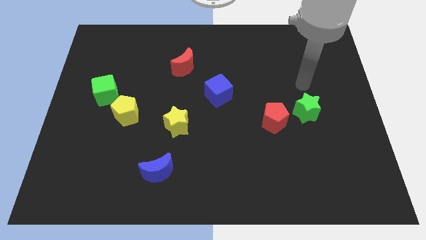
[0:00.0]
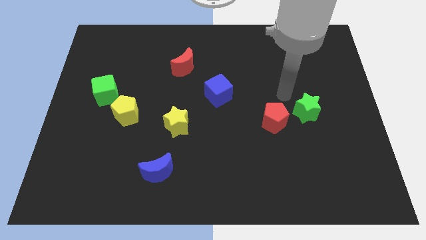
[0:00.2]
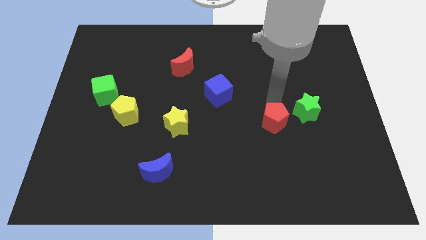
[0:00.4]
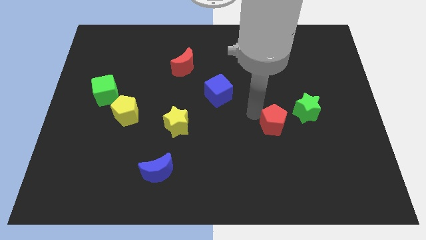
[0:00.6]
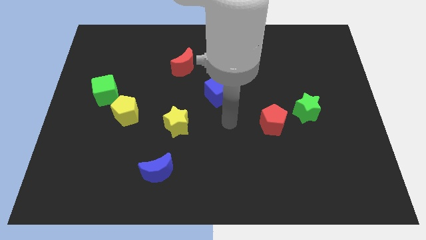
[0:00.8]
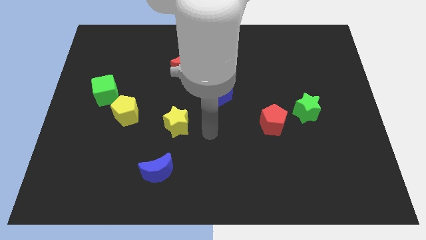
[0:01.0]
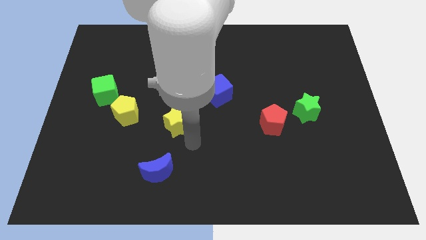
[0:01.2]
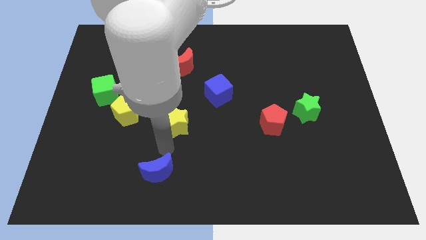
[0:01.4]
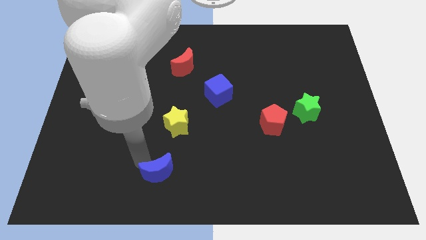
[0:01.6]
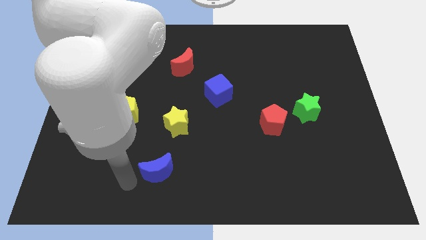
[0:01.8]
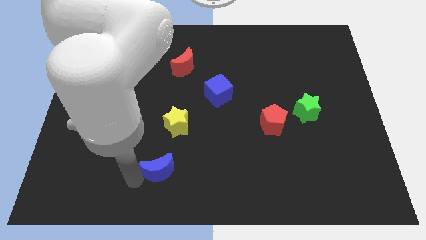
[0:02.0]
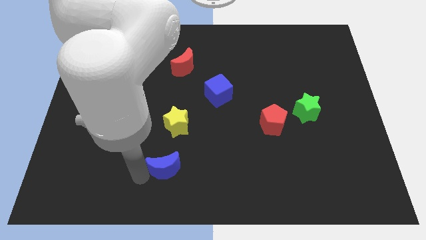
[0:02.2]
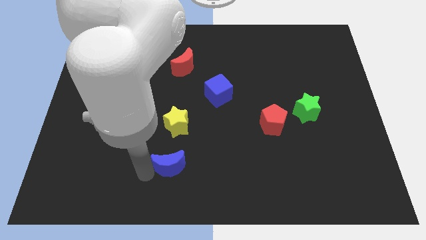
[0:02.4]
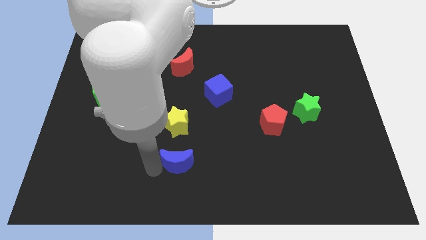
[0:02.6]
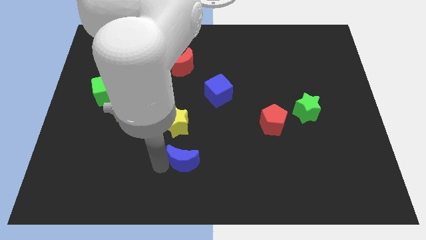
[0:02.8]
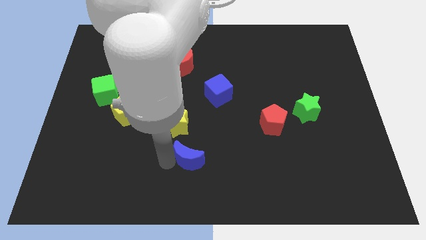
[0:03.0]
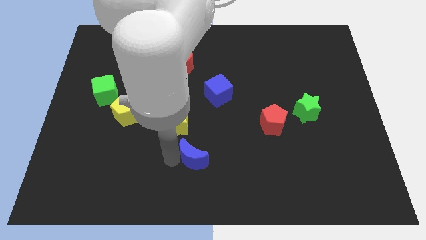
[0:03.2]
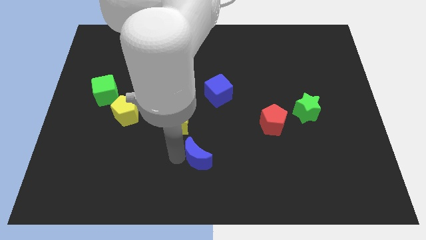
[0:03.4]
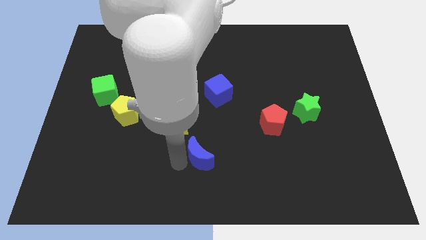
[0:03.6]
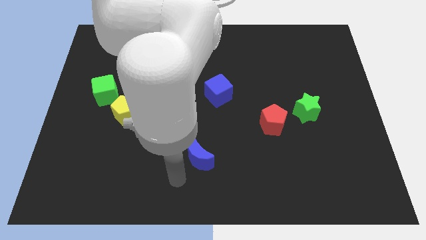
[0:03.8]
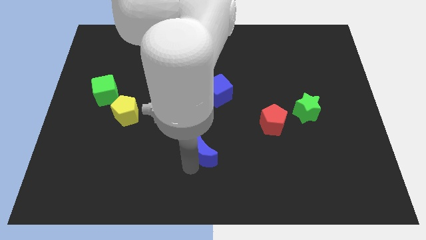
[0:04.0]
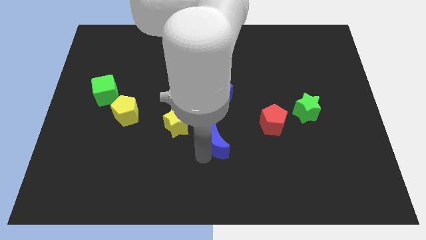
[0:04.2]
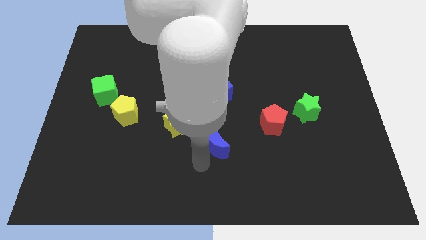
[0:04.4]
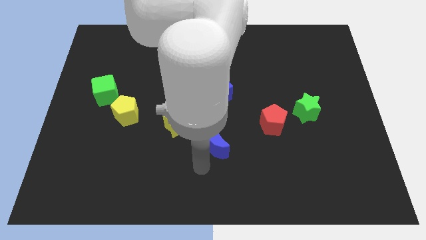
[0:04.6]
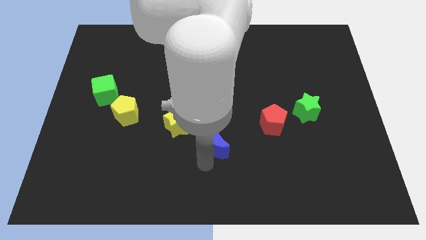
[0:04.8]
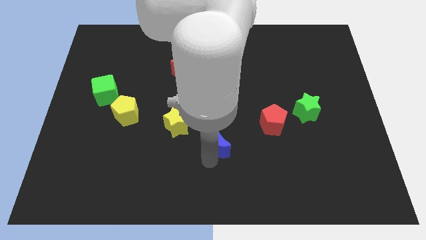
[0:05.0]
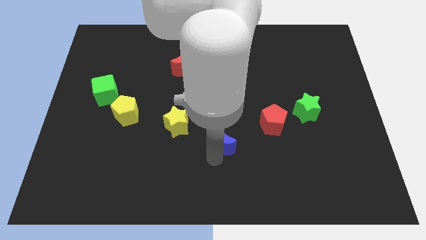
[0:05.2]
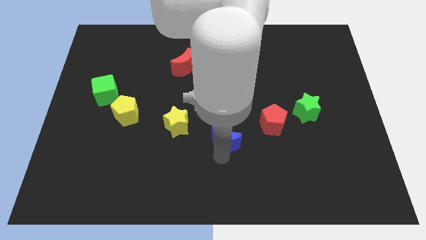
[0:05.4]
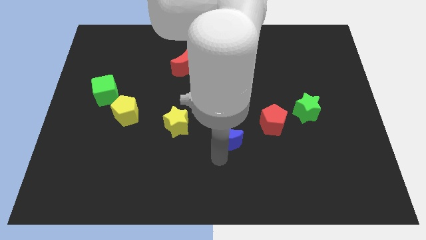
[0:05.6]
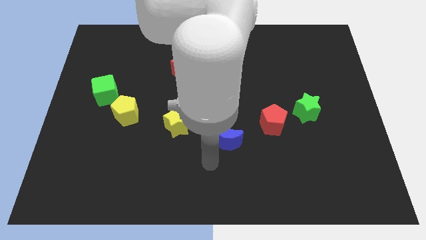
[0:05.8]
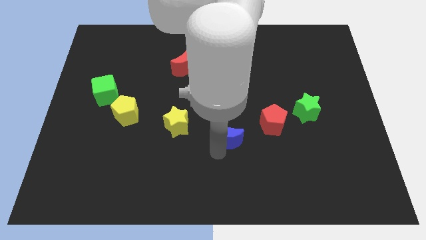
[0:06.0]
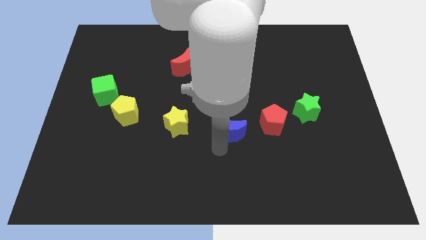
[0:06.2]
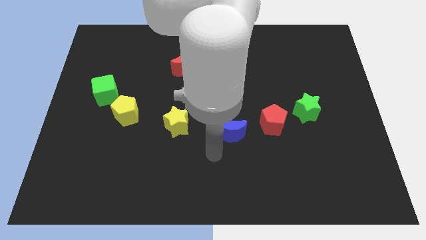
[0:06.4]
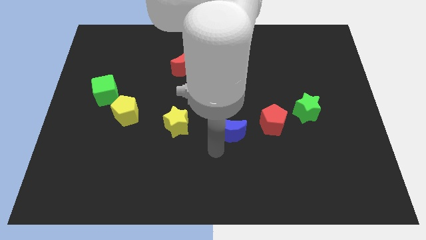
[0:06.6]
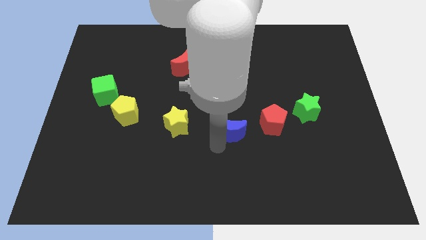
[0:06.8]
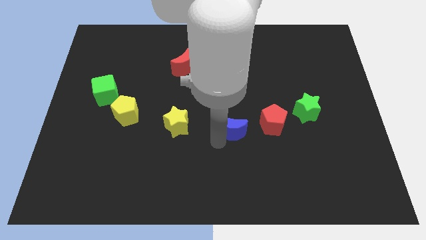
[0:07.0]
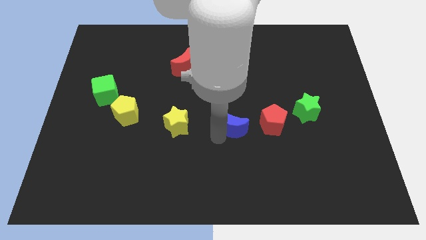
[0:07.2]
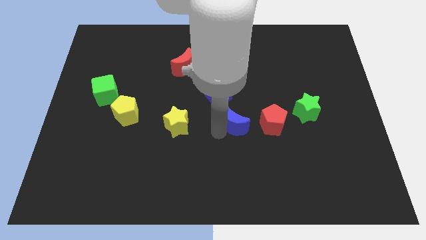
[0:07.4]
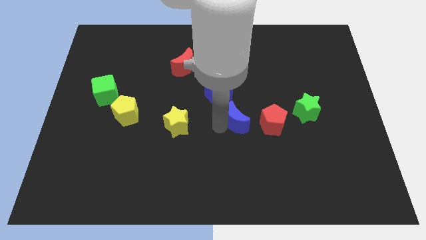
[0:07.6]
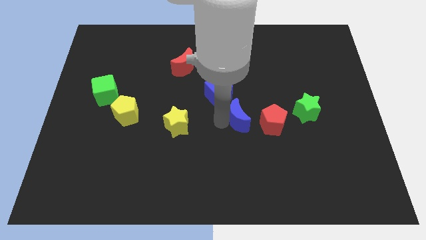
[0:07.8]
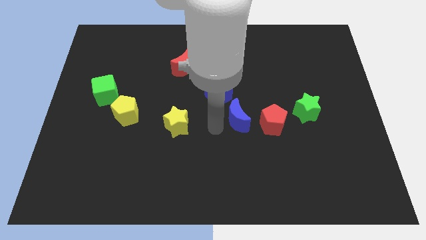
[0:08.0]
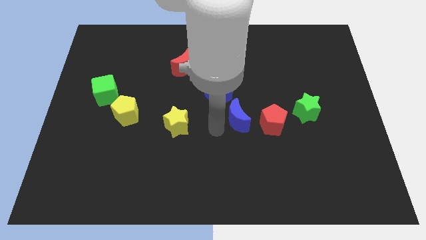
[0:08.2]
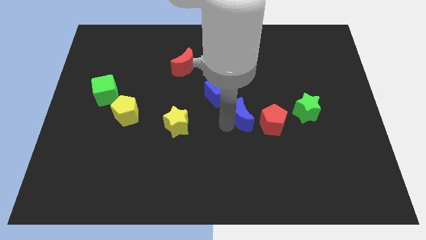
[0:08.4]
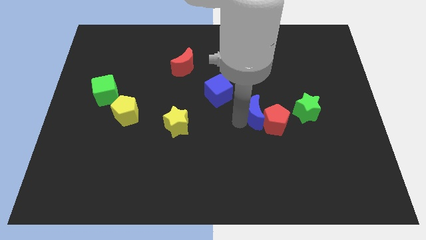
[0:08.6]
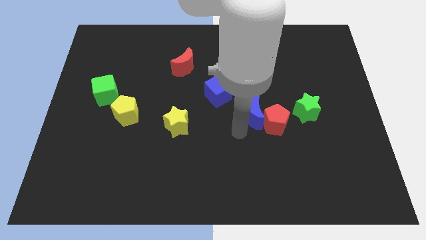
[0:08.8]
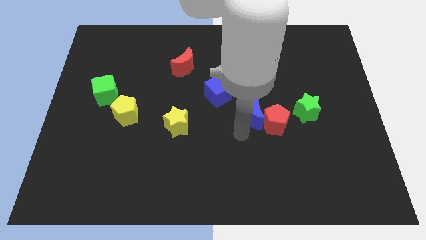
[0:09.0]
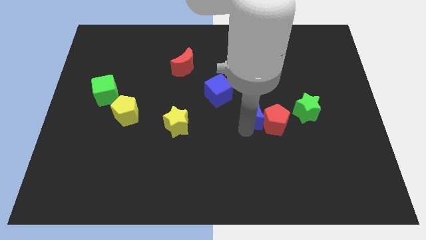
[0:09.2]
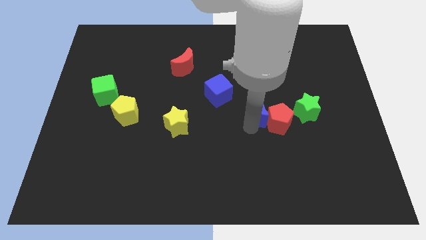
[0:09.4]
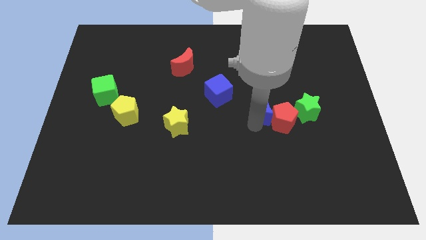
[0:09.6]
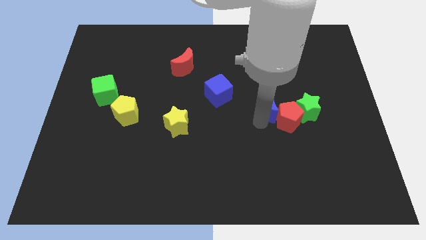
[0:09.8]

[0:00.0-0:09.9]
slide the blue moon to the top side of the red pentagon

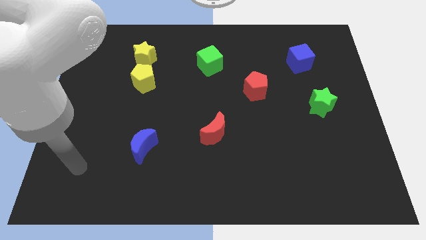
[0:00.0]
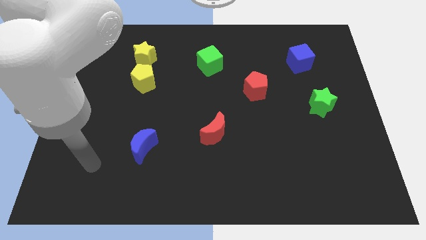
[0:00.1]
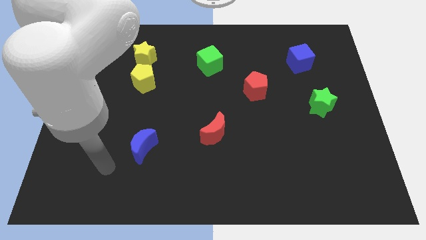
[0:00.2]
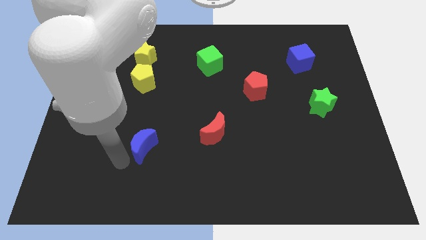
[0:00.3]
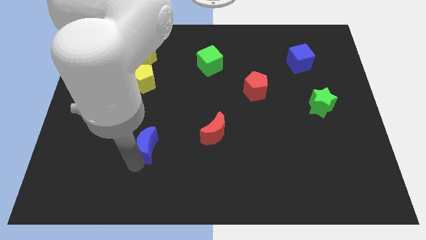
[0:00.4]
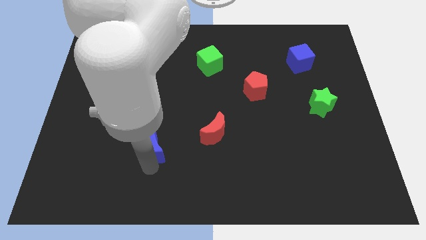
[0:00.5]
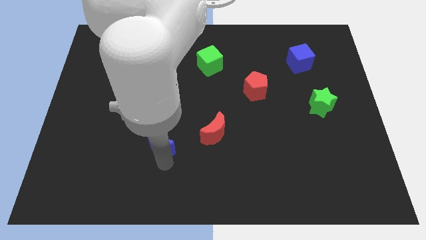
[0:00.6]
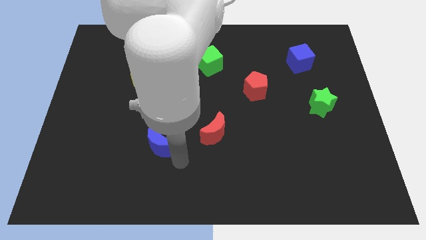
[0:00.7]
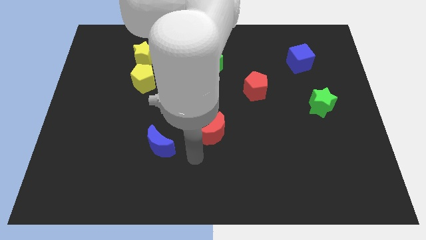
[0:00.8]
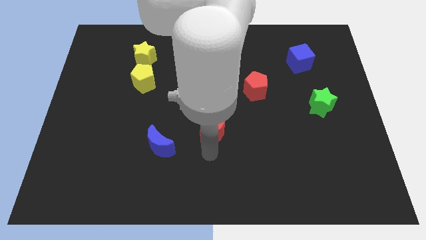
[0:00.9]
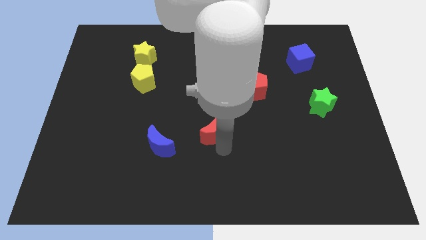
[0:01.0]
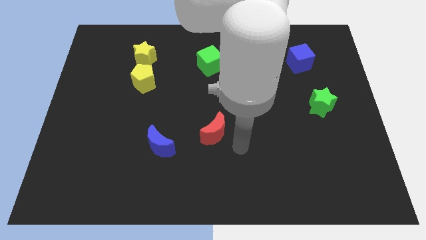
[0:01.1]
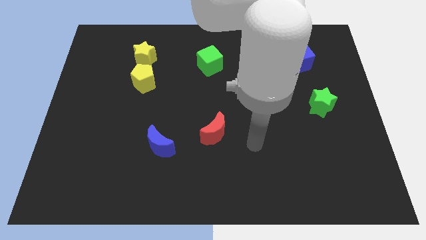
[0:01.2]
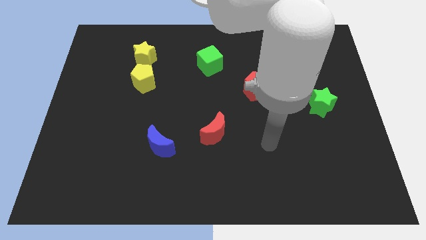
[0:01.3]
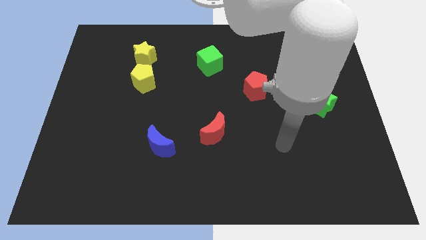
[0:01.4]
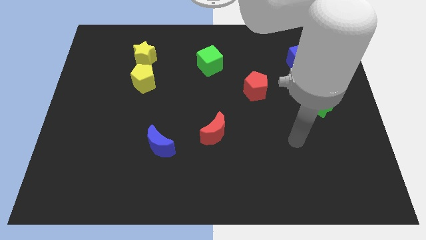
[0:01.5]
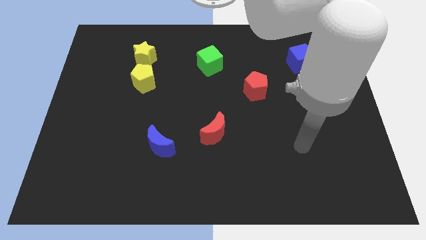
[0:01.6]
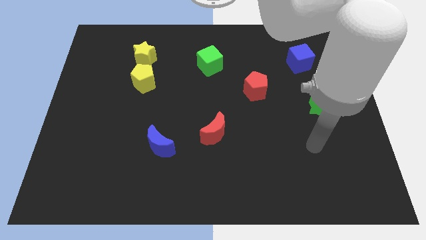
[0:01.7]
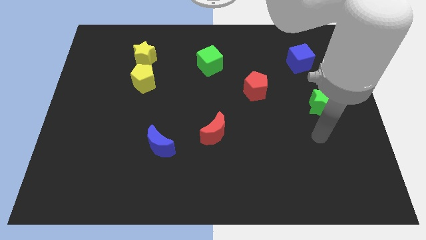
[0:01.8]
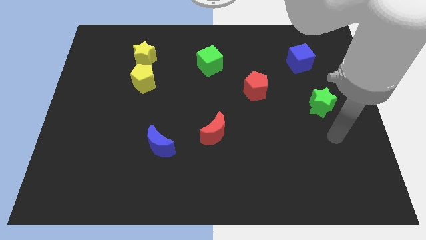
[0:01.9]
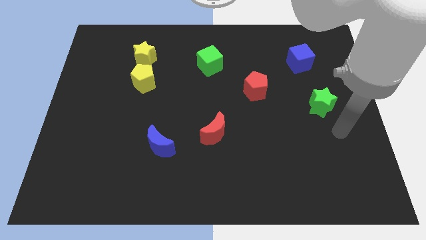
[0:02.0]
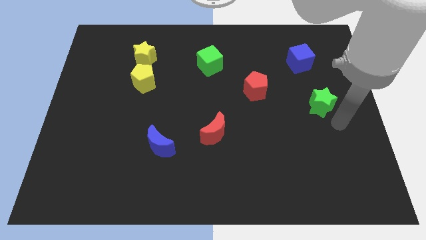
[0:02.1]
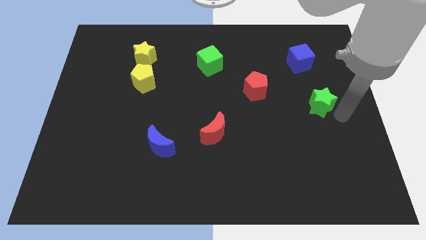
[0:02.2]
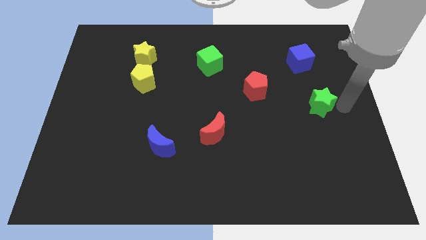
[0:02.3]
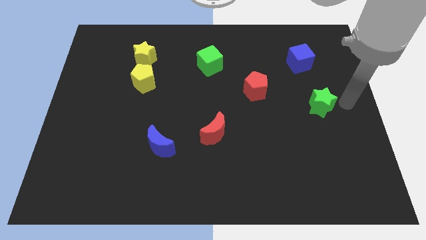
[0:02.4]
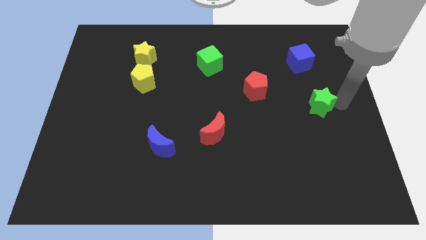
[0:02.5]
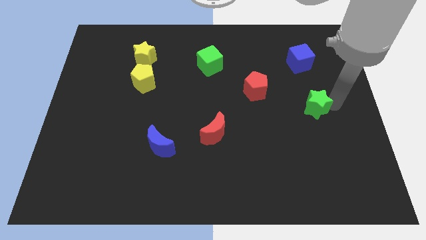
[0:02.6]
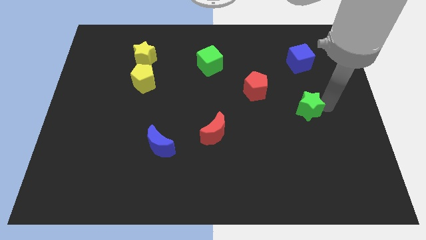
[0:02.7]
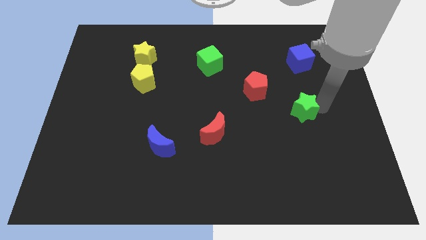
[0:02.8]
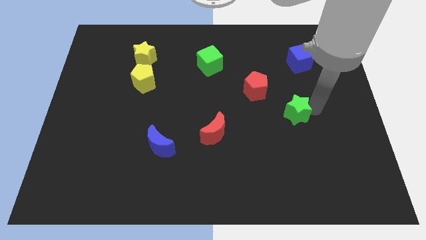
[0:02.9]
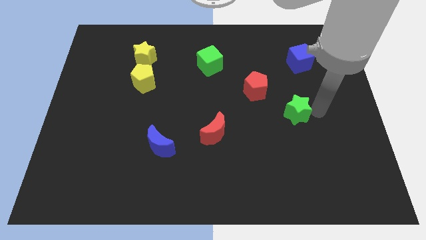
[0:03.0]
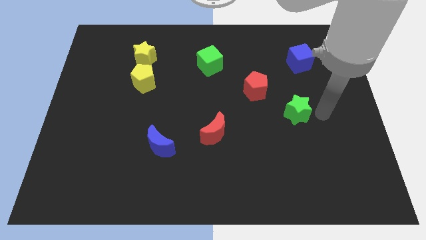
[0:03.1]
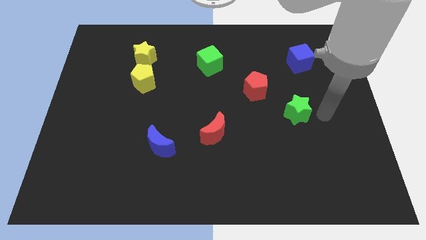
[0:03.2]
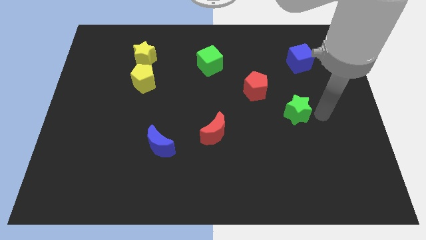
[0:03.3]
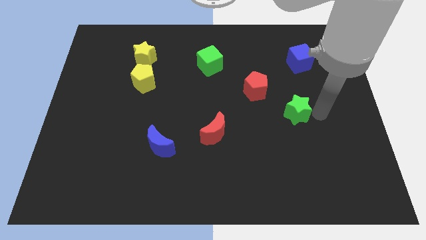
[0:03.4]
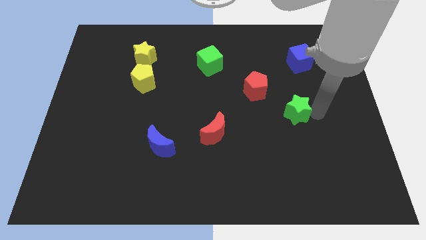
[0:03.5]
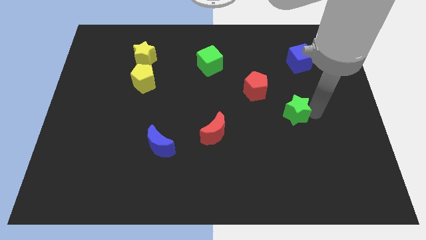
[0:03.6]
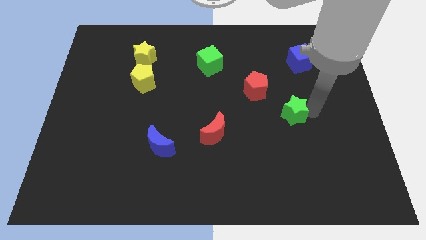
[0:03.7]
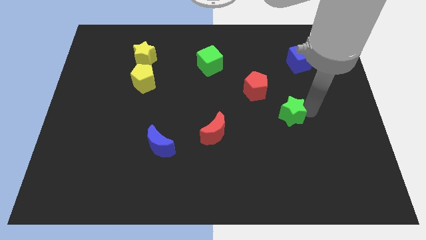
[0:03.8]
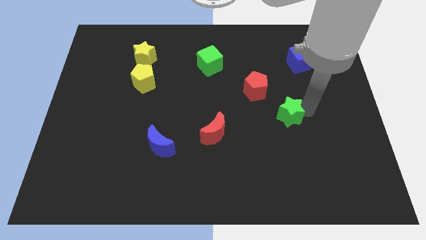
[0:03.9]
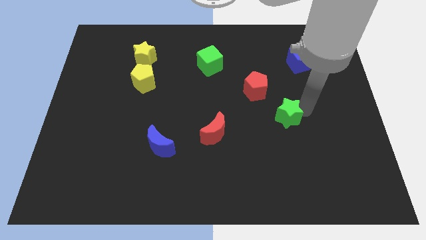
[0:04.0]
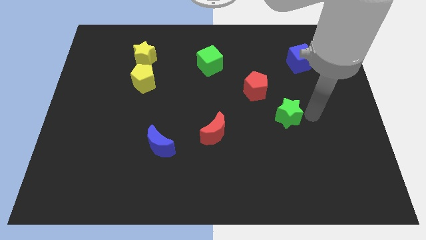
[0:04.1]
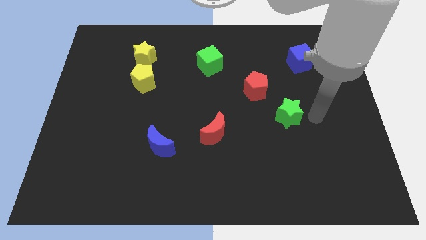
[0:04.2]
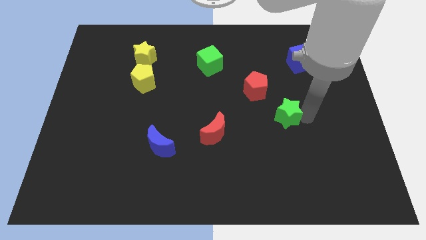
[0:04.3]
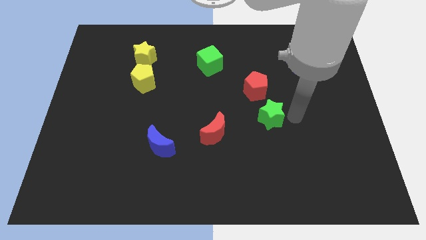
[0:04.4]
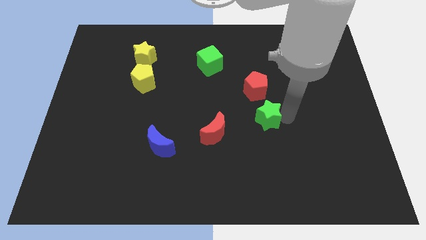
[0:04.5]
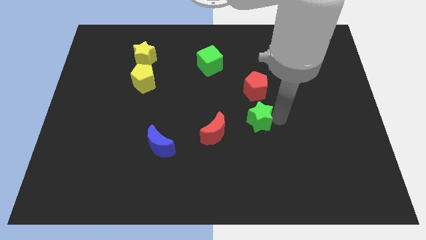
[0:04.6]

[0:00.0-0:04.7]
put the green star diagonally up and to the right of the red moon
